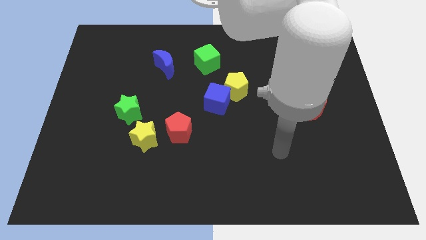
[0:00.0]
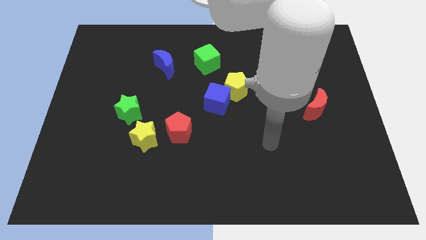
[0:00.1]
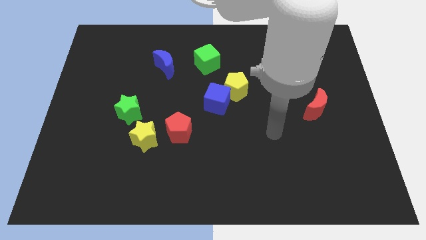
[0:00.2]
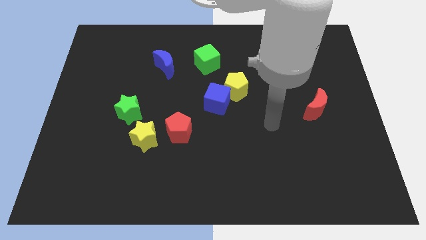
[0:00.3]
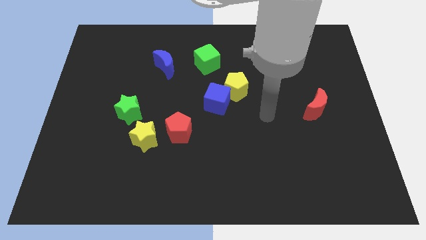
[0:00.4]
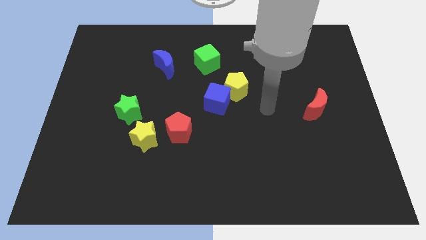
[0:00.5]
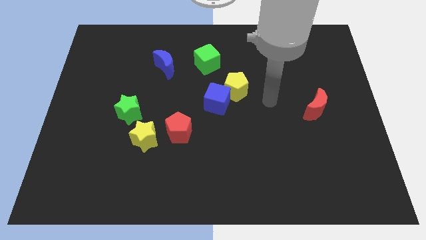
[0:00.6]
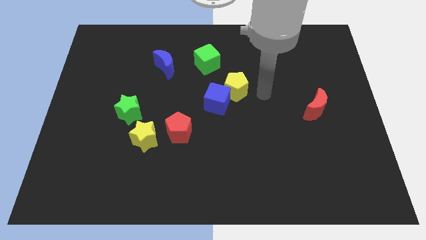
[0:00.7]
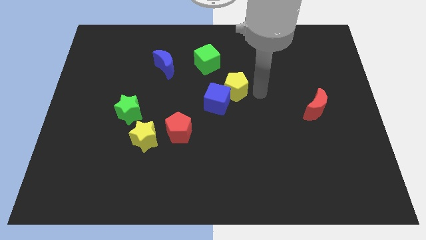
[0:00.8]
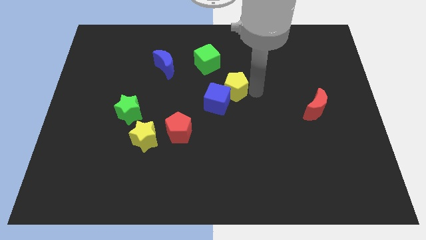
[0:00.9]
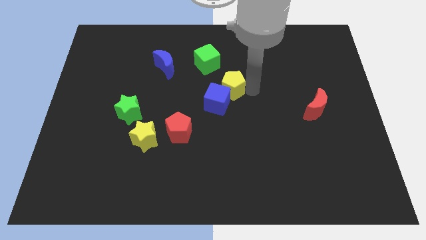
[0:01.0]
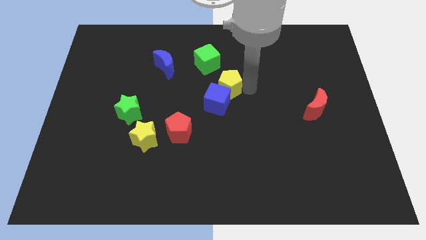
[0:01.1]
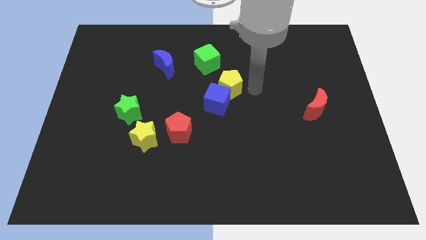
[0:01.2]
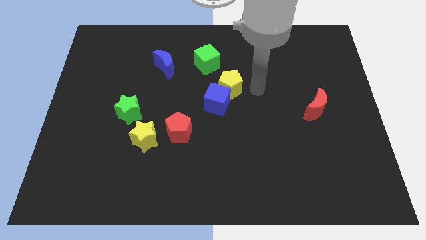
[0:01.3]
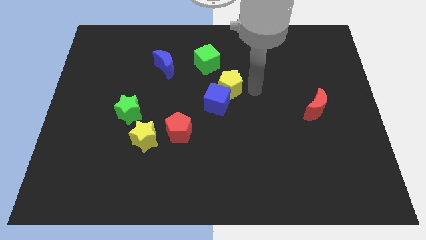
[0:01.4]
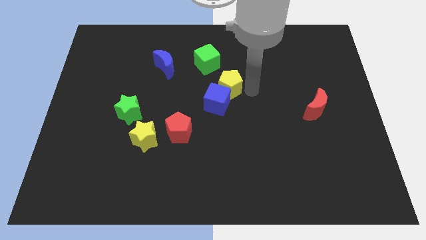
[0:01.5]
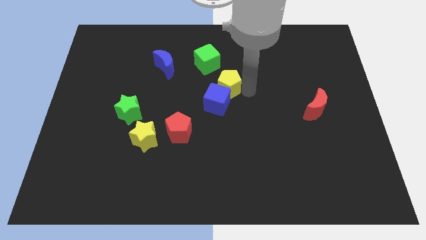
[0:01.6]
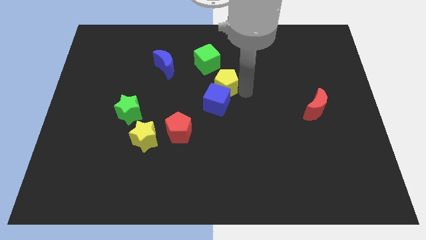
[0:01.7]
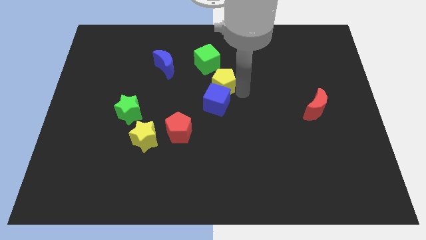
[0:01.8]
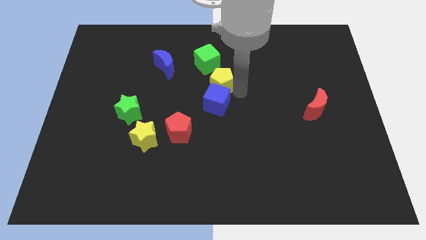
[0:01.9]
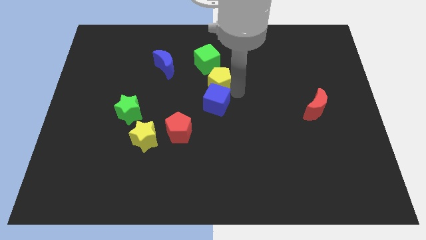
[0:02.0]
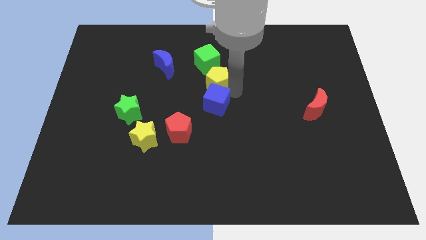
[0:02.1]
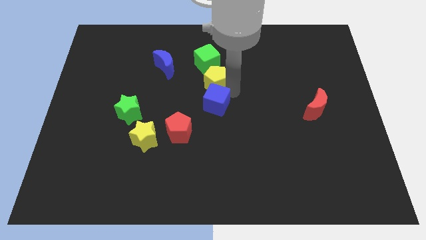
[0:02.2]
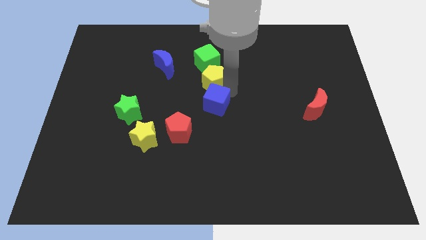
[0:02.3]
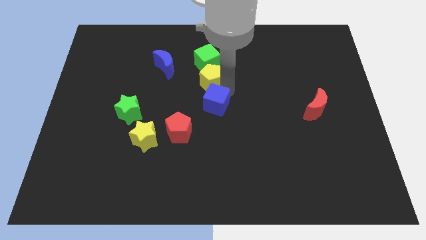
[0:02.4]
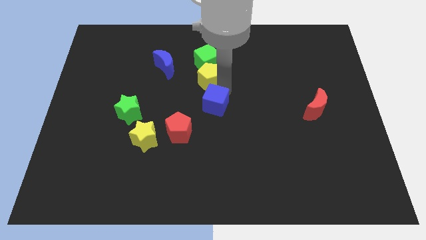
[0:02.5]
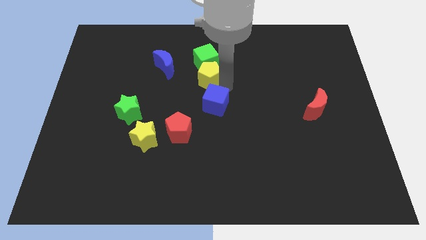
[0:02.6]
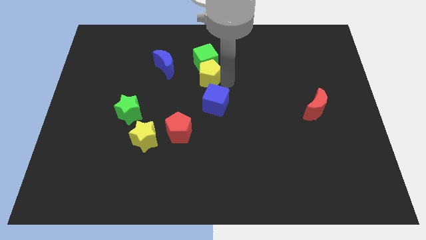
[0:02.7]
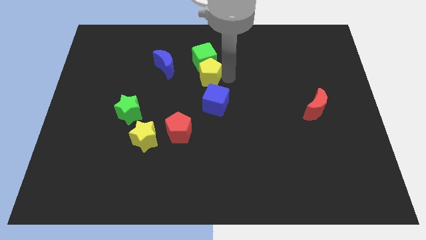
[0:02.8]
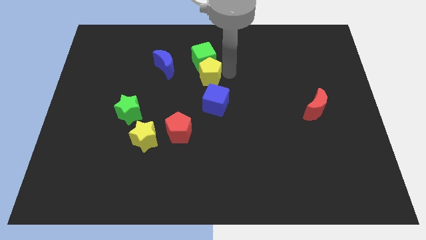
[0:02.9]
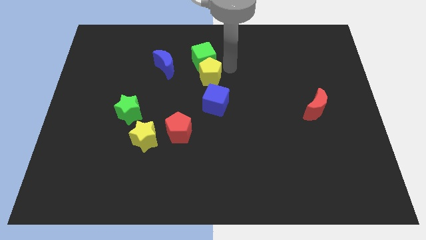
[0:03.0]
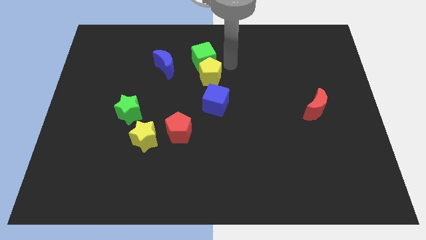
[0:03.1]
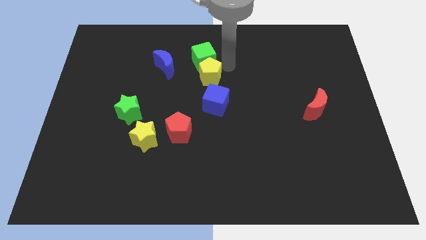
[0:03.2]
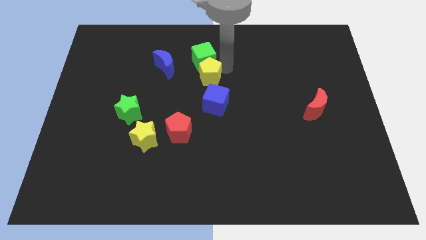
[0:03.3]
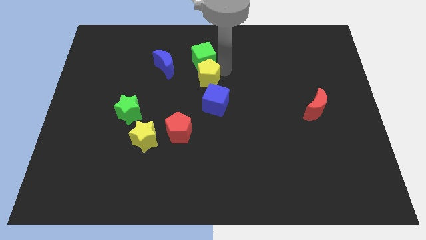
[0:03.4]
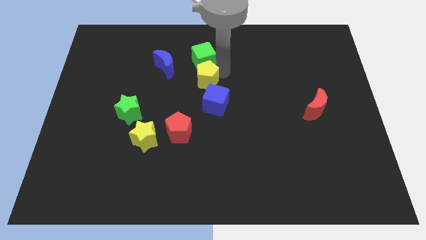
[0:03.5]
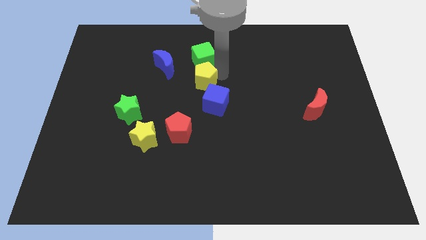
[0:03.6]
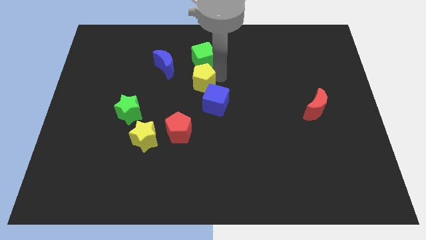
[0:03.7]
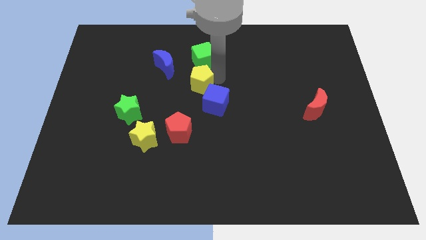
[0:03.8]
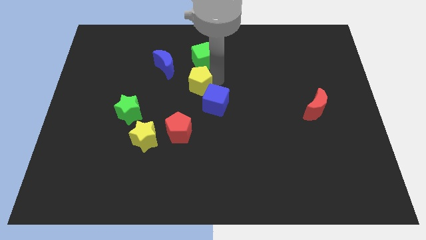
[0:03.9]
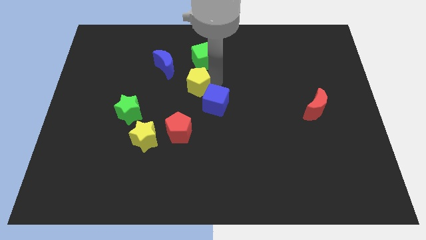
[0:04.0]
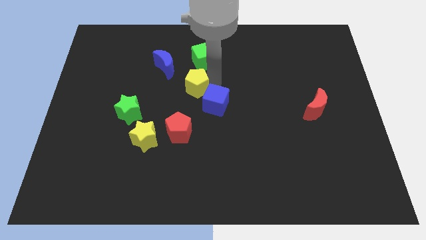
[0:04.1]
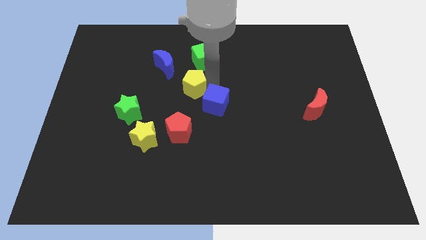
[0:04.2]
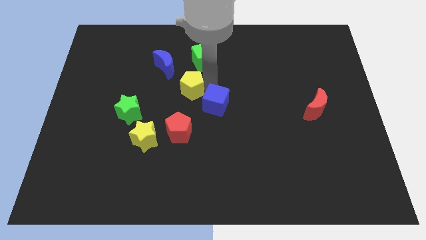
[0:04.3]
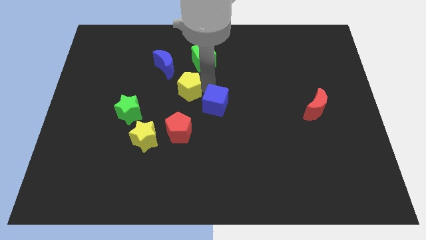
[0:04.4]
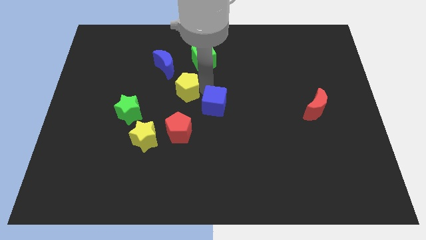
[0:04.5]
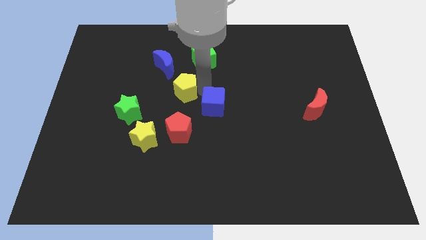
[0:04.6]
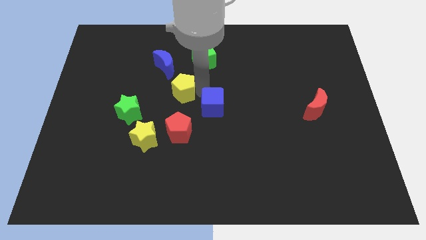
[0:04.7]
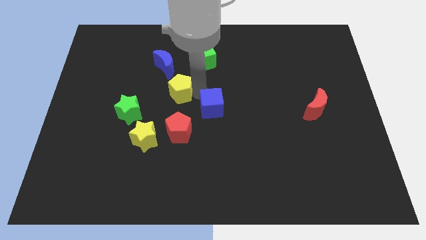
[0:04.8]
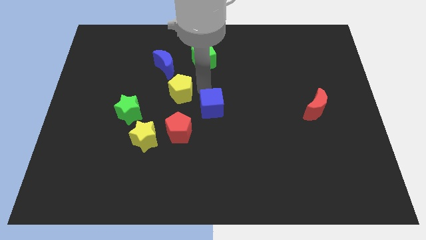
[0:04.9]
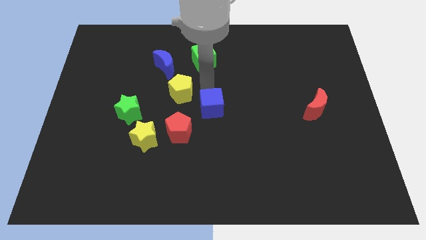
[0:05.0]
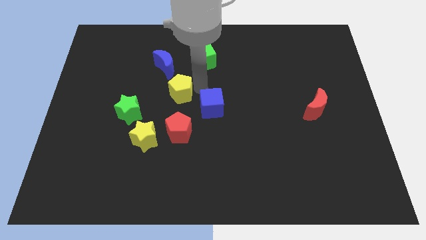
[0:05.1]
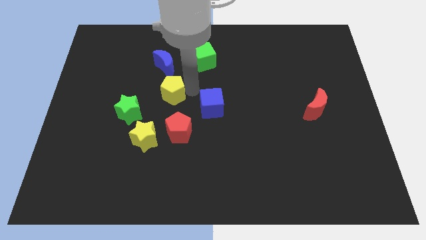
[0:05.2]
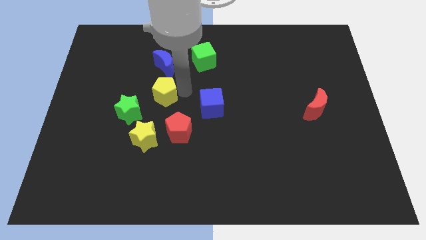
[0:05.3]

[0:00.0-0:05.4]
push the yellow pentagon to the top of the yellow star

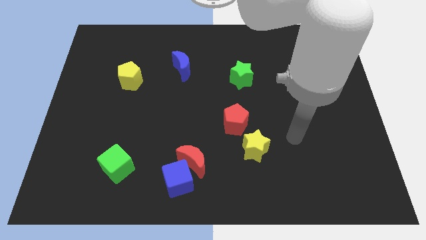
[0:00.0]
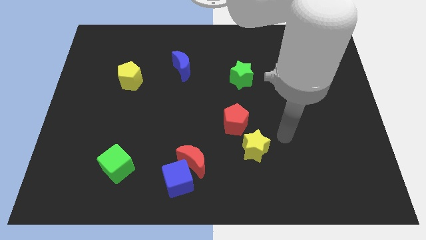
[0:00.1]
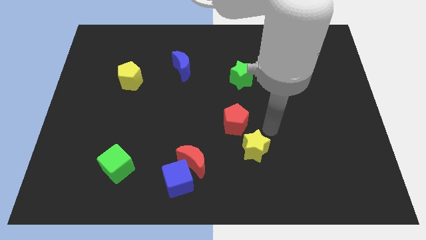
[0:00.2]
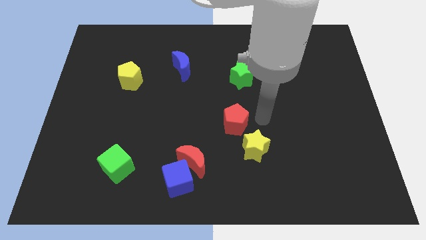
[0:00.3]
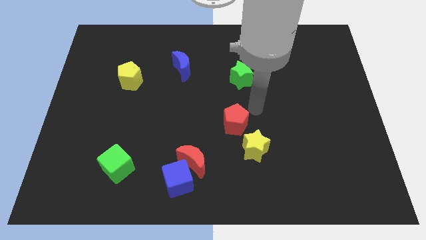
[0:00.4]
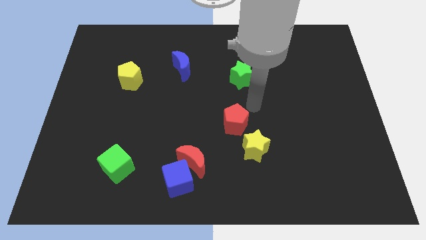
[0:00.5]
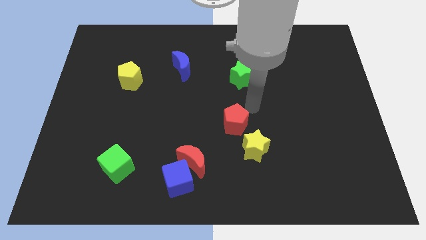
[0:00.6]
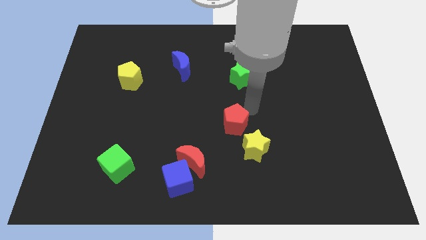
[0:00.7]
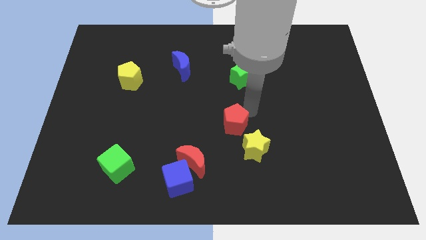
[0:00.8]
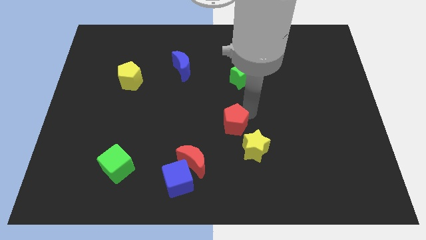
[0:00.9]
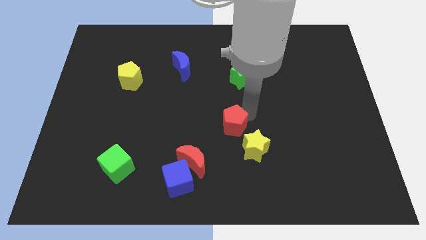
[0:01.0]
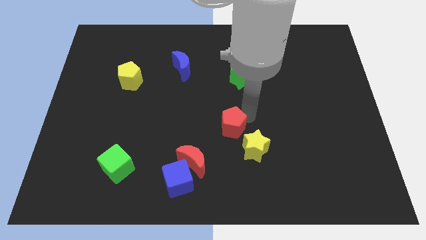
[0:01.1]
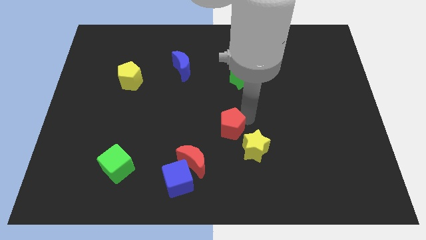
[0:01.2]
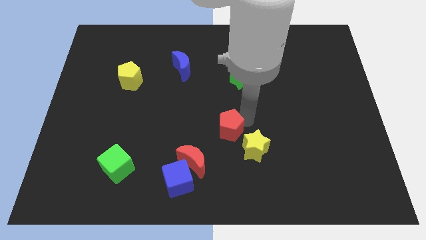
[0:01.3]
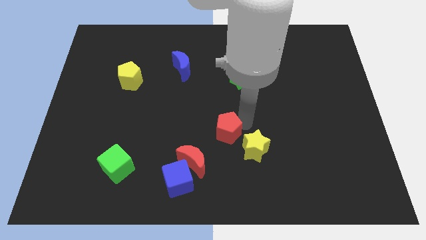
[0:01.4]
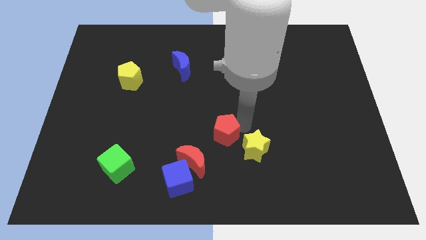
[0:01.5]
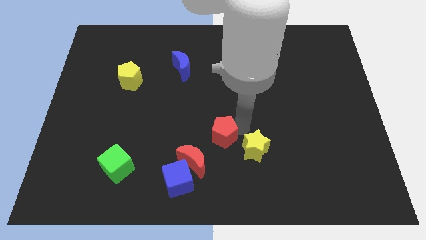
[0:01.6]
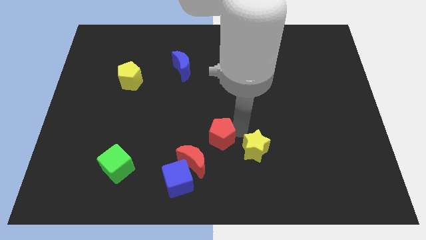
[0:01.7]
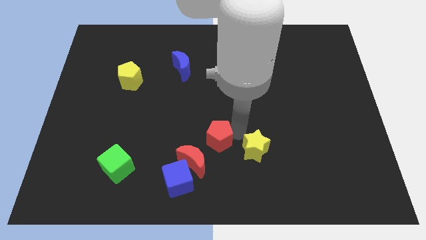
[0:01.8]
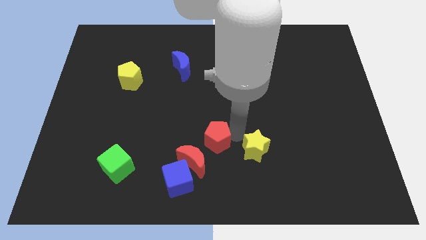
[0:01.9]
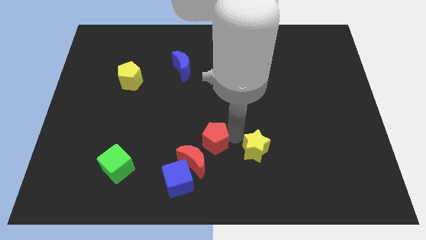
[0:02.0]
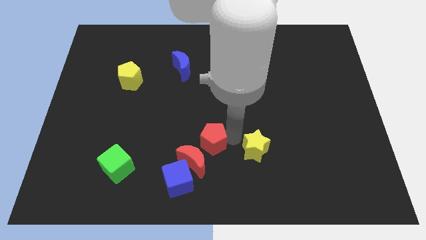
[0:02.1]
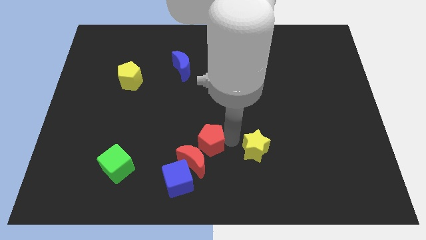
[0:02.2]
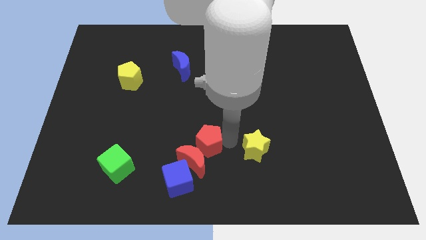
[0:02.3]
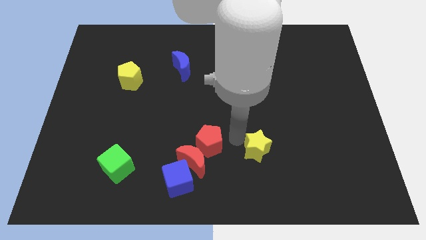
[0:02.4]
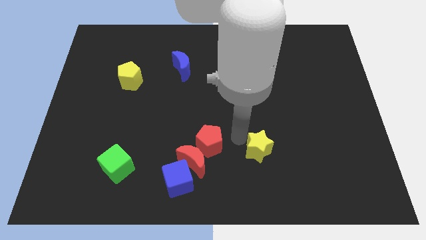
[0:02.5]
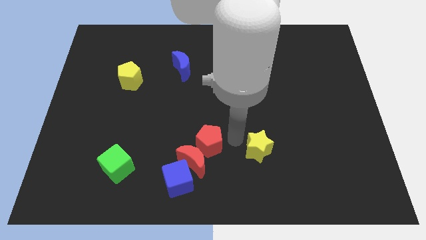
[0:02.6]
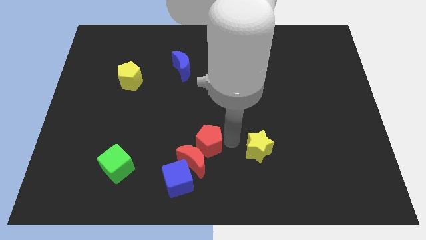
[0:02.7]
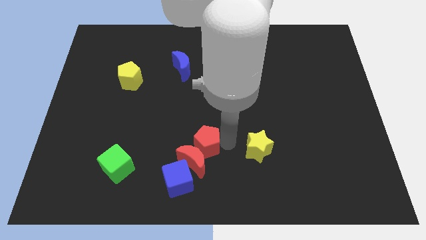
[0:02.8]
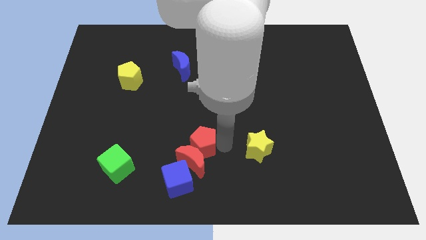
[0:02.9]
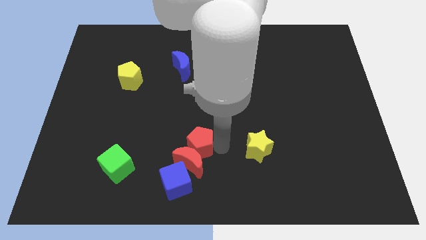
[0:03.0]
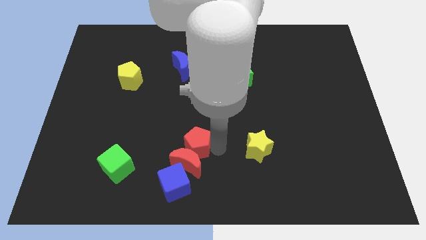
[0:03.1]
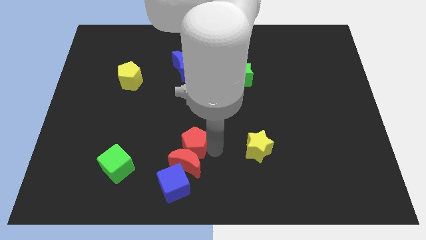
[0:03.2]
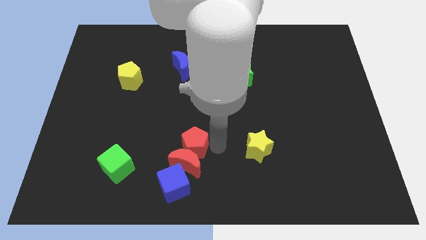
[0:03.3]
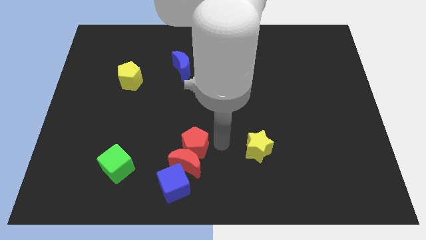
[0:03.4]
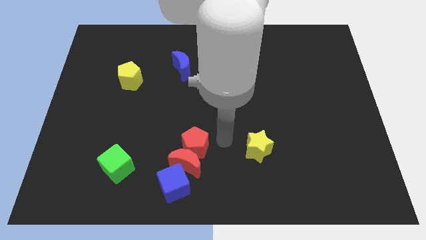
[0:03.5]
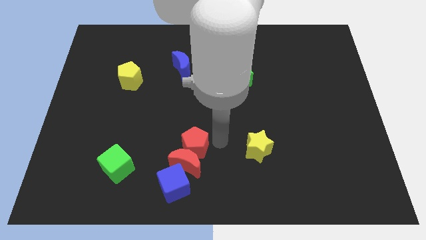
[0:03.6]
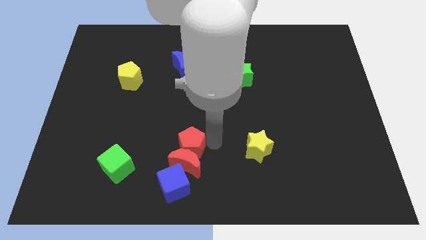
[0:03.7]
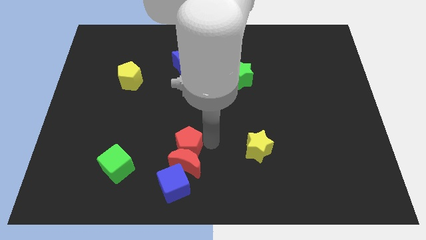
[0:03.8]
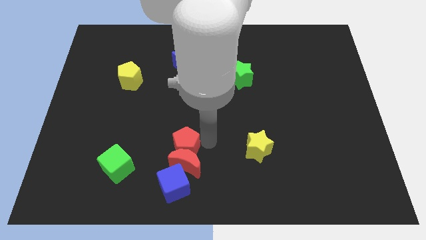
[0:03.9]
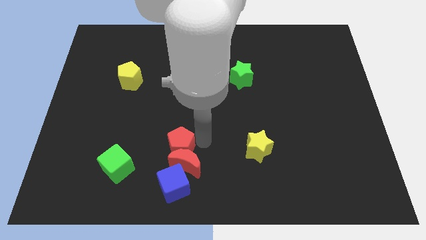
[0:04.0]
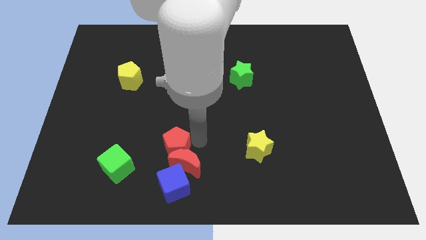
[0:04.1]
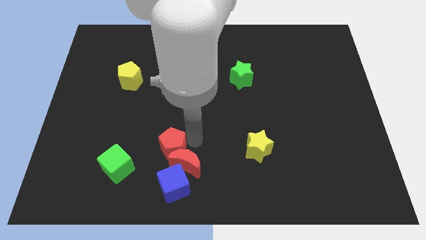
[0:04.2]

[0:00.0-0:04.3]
push the red pentagon left of the red moon
